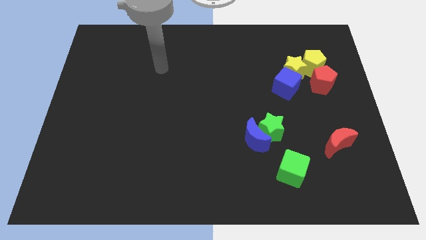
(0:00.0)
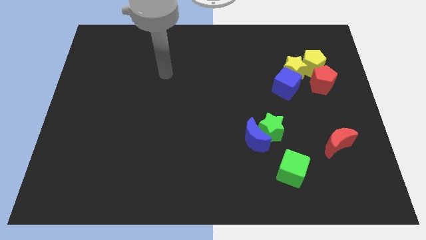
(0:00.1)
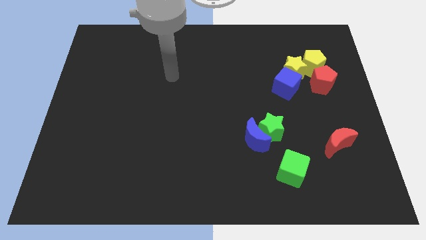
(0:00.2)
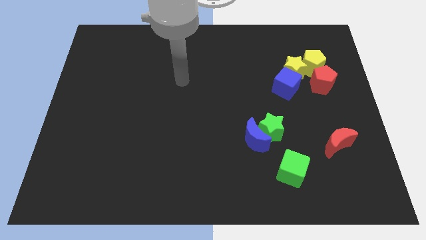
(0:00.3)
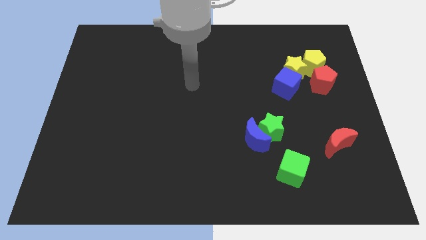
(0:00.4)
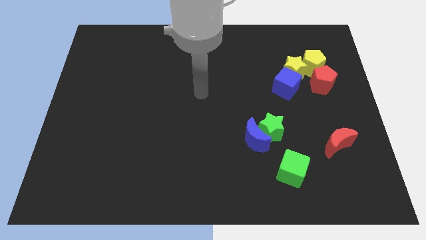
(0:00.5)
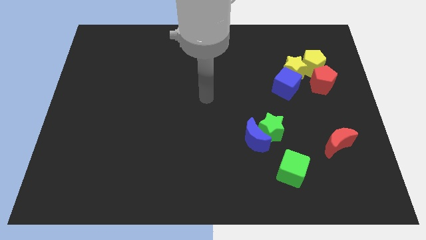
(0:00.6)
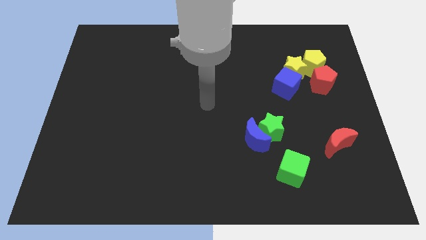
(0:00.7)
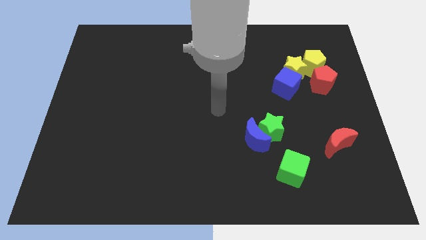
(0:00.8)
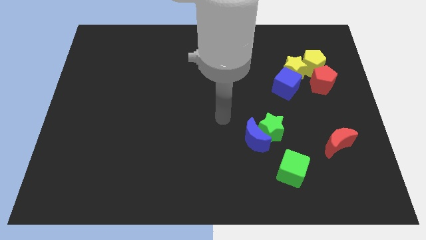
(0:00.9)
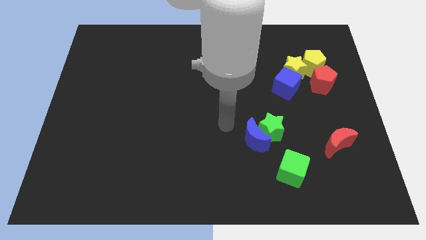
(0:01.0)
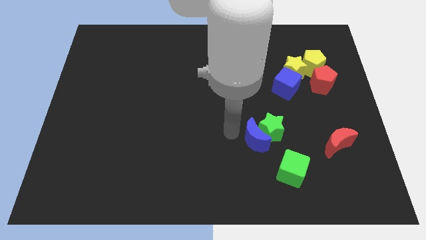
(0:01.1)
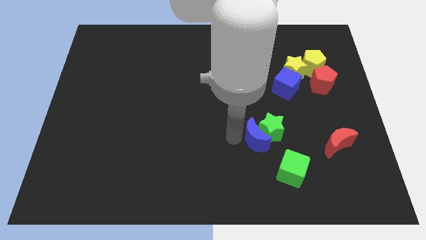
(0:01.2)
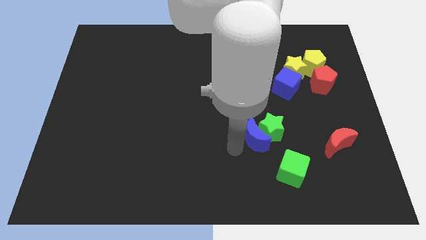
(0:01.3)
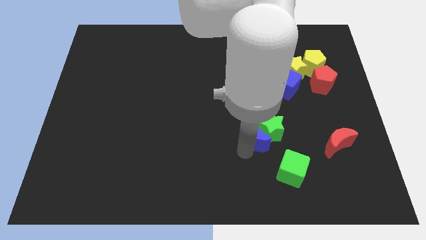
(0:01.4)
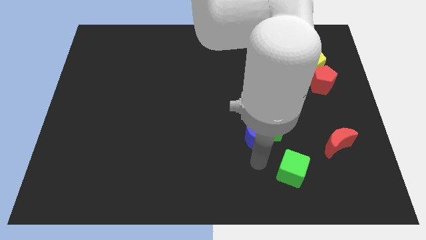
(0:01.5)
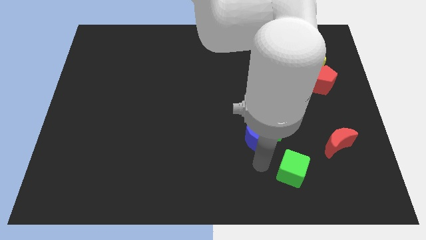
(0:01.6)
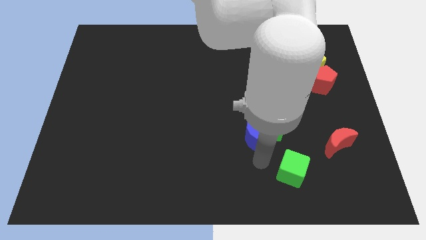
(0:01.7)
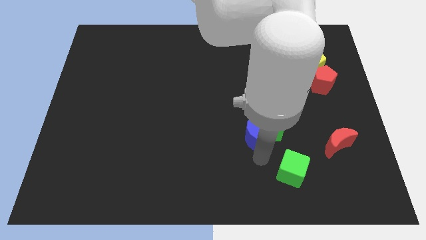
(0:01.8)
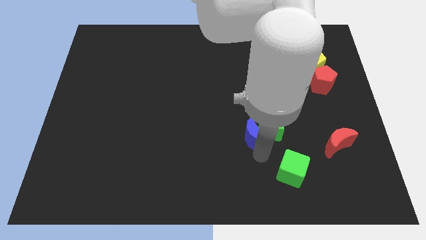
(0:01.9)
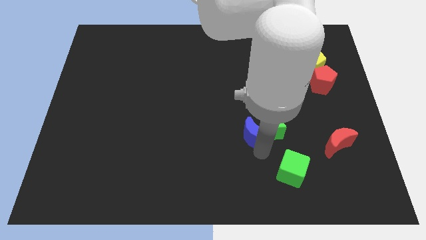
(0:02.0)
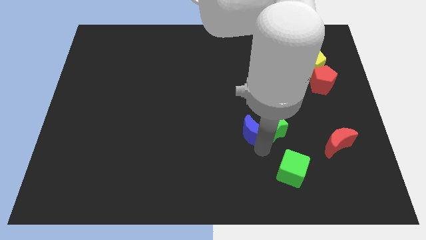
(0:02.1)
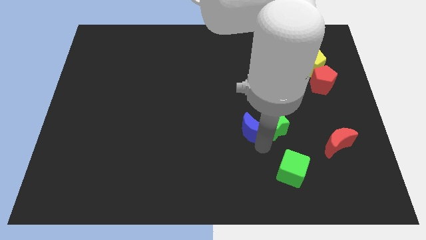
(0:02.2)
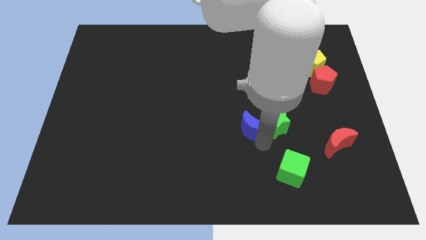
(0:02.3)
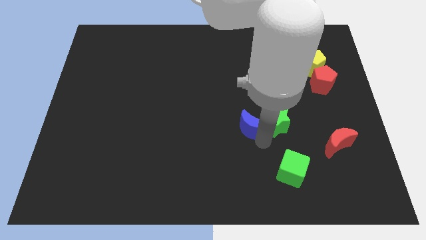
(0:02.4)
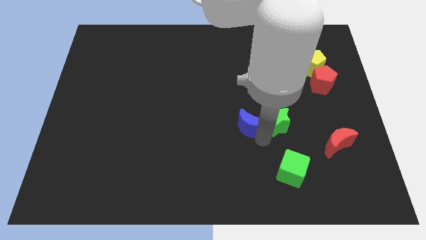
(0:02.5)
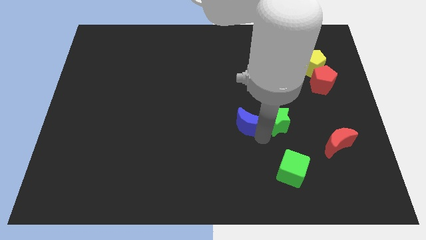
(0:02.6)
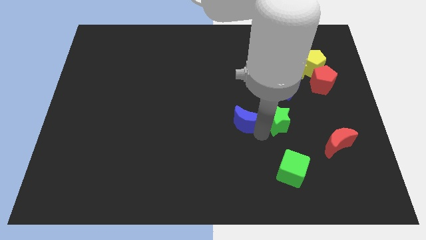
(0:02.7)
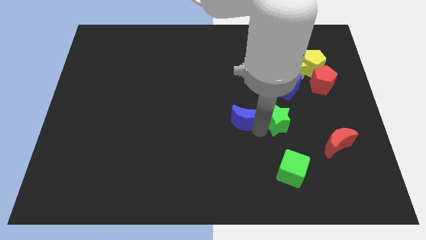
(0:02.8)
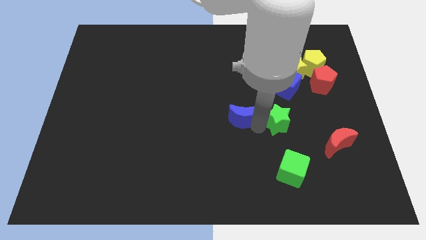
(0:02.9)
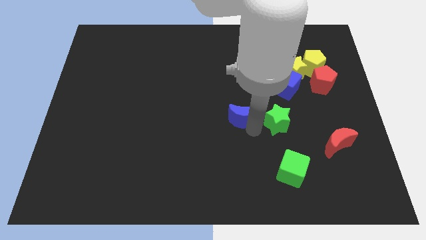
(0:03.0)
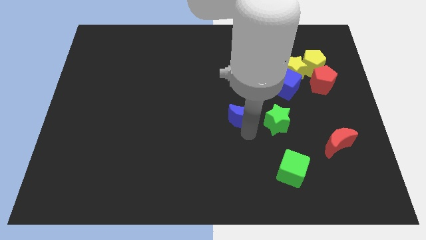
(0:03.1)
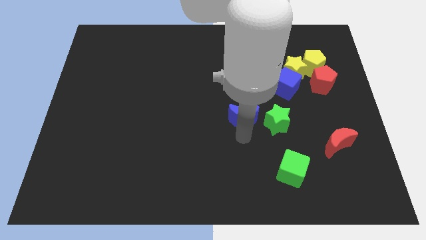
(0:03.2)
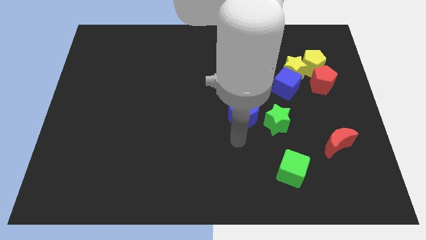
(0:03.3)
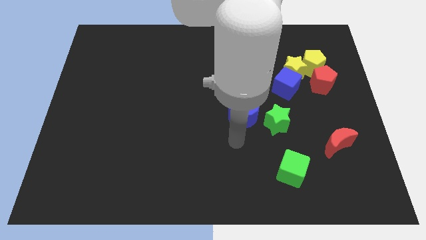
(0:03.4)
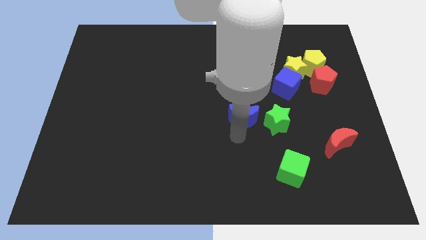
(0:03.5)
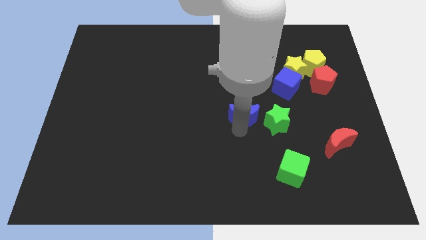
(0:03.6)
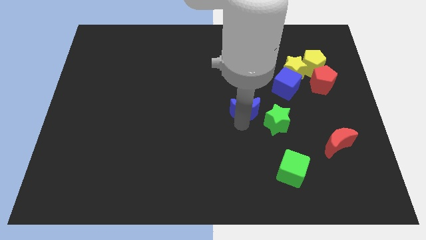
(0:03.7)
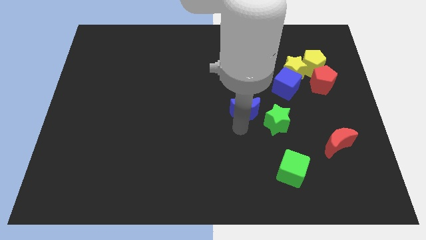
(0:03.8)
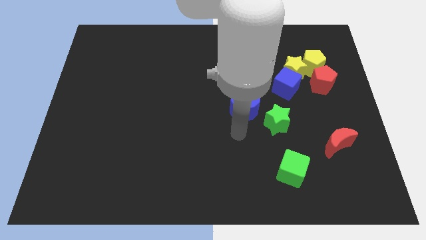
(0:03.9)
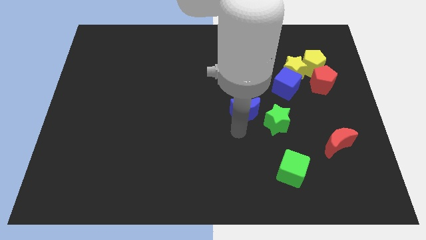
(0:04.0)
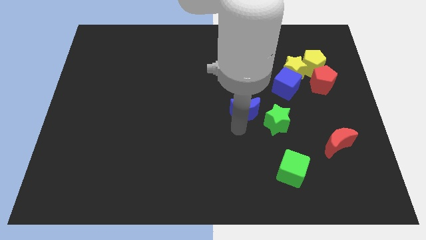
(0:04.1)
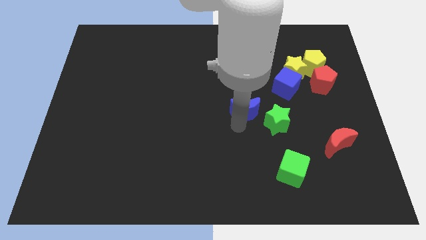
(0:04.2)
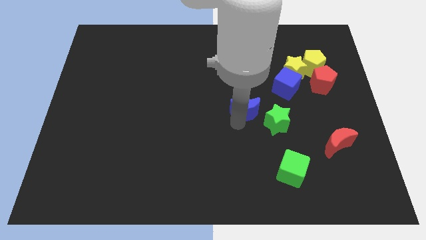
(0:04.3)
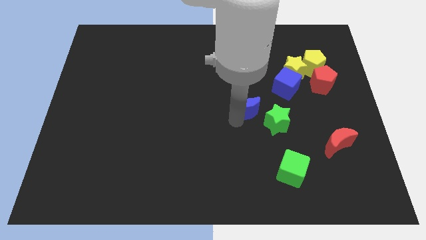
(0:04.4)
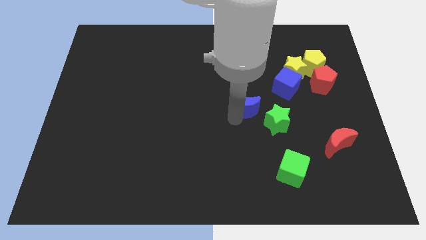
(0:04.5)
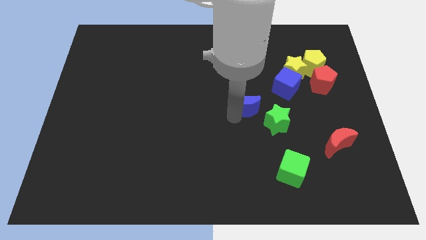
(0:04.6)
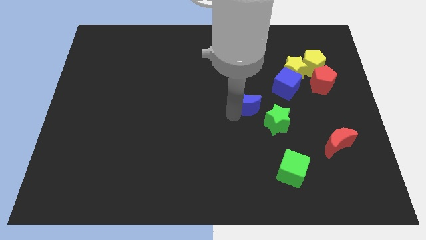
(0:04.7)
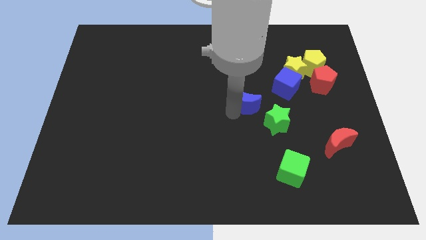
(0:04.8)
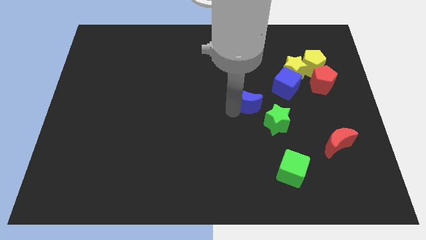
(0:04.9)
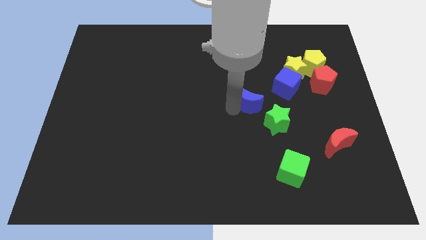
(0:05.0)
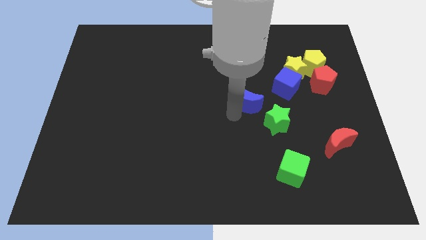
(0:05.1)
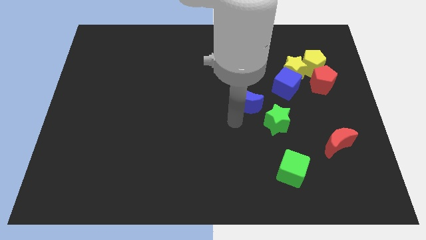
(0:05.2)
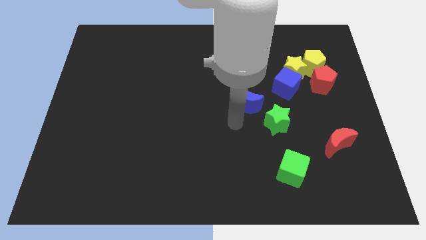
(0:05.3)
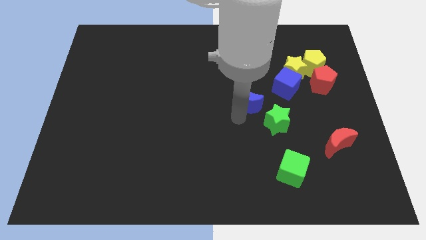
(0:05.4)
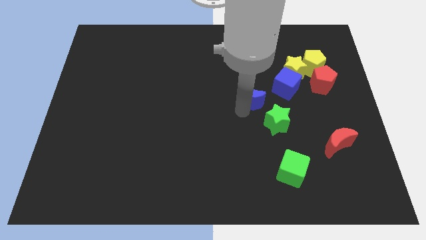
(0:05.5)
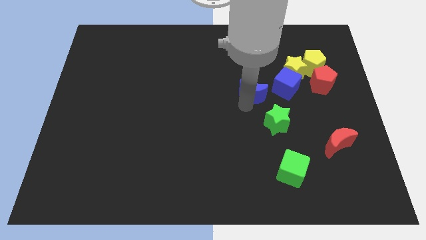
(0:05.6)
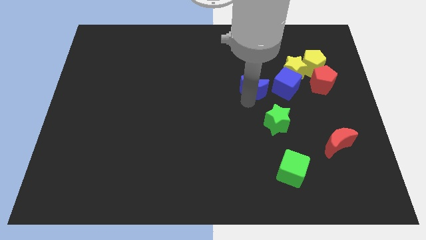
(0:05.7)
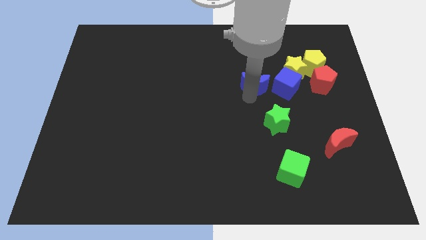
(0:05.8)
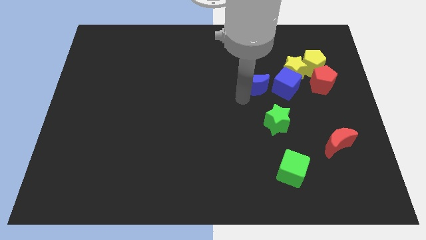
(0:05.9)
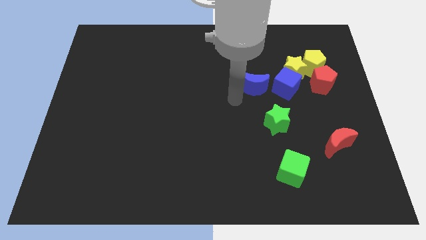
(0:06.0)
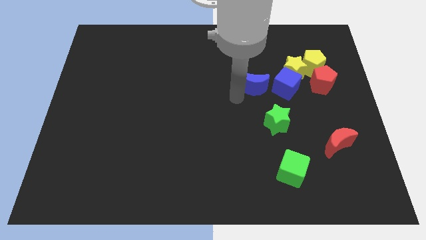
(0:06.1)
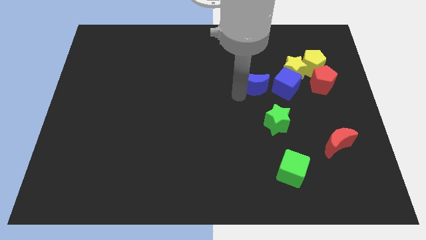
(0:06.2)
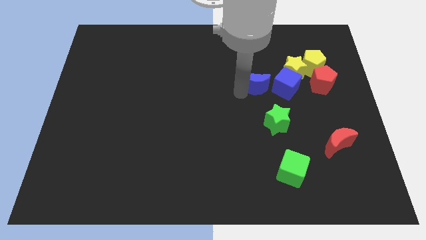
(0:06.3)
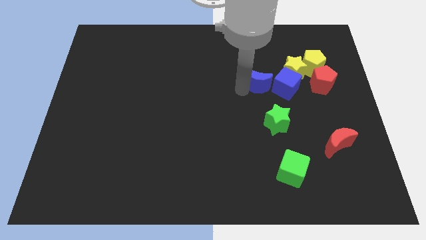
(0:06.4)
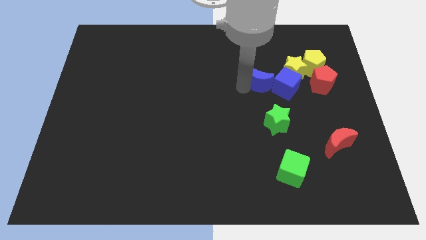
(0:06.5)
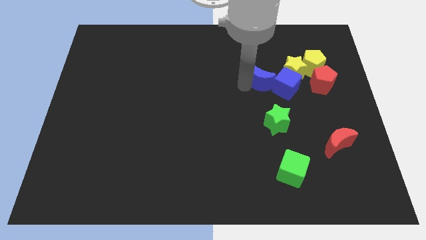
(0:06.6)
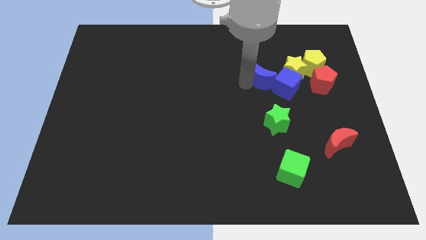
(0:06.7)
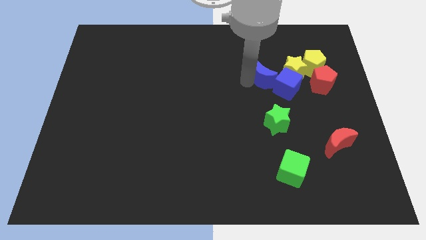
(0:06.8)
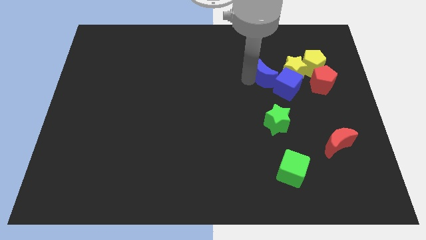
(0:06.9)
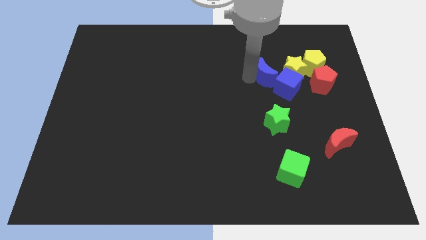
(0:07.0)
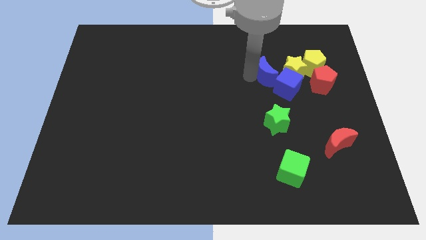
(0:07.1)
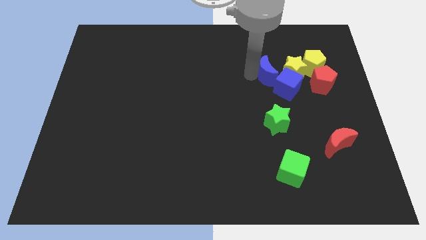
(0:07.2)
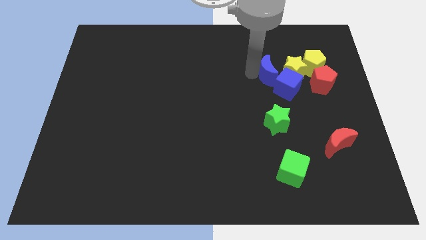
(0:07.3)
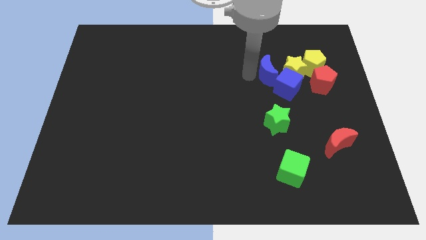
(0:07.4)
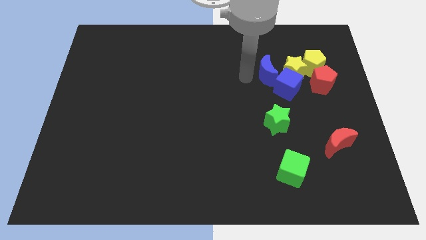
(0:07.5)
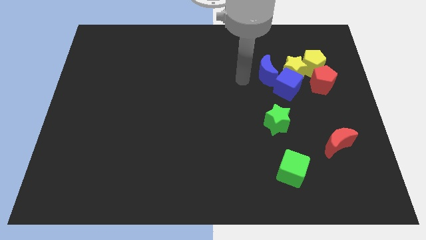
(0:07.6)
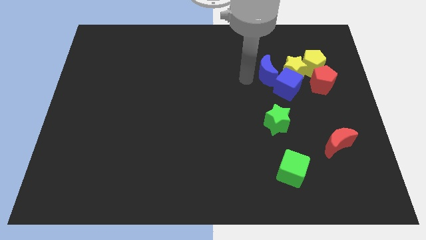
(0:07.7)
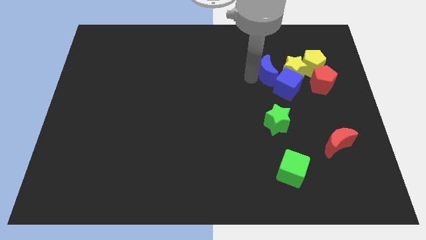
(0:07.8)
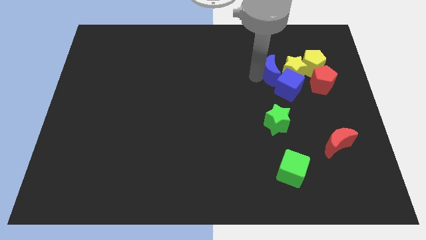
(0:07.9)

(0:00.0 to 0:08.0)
put the blue moon next to the yellow star
